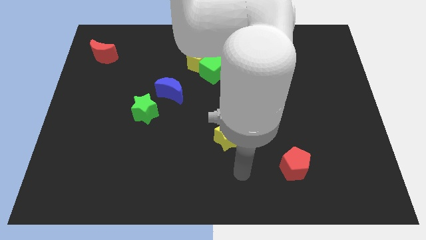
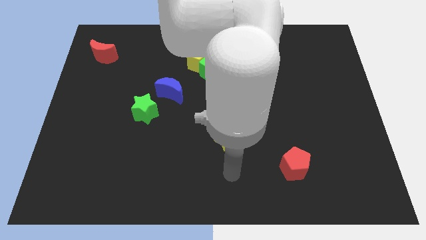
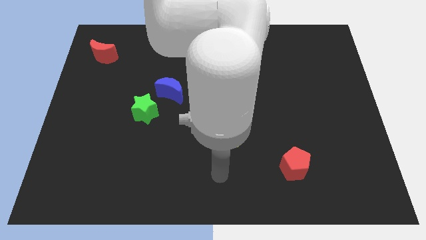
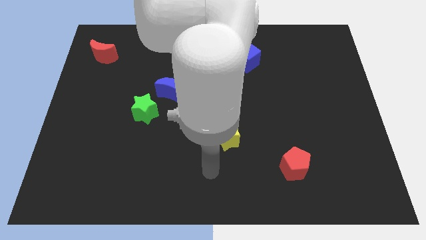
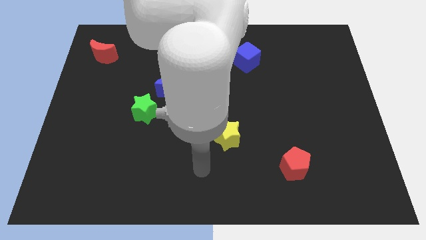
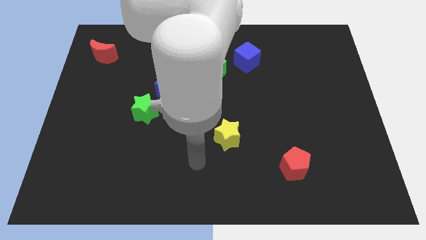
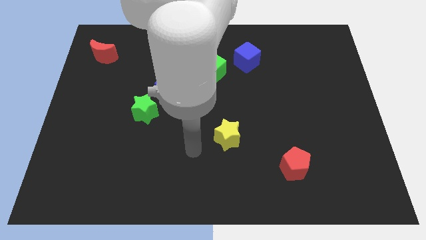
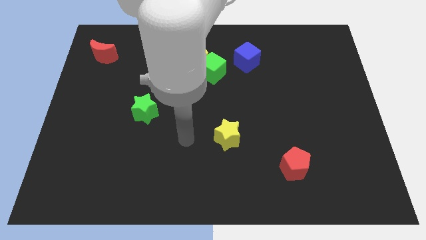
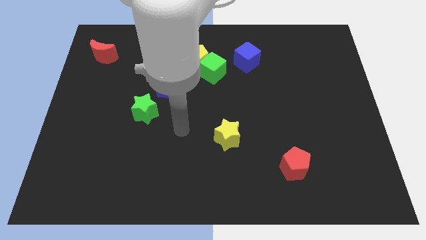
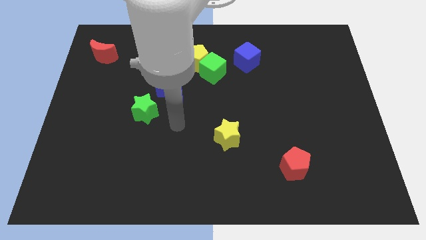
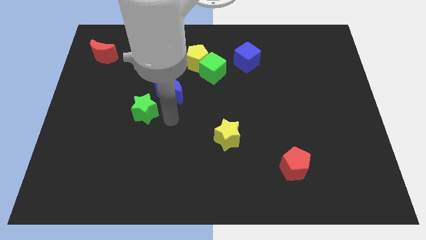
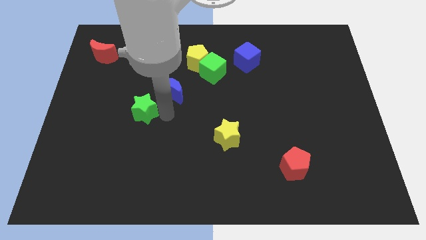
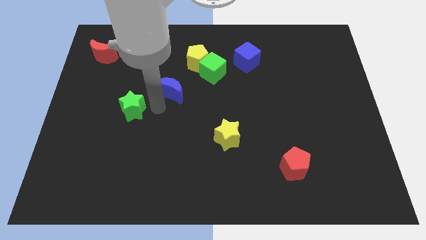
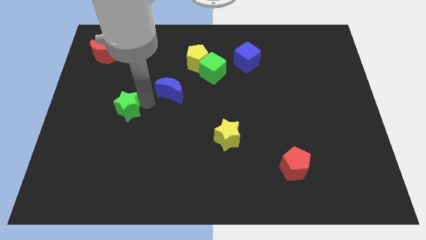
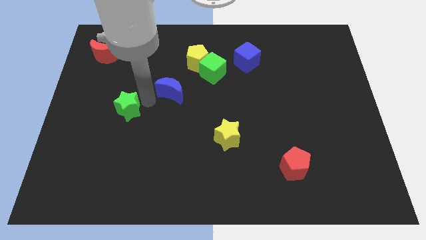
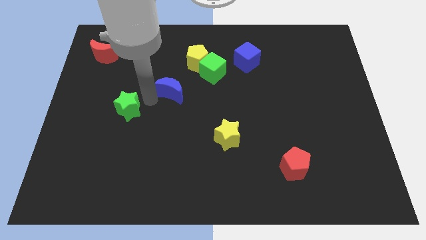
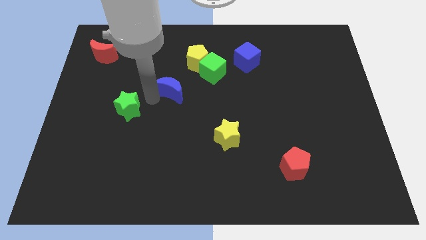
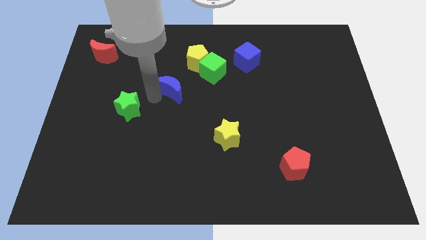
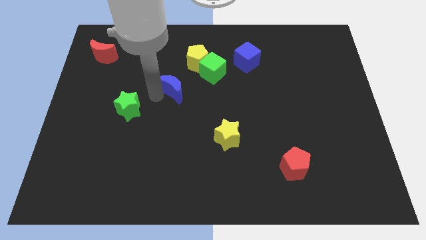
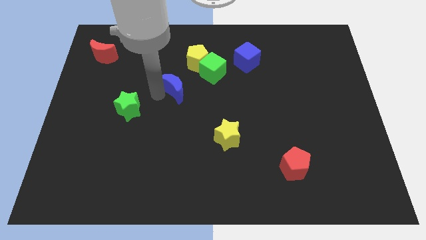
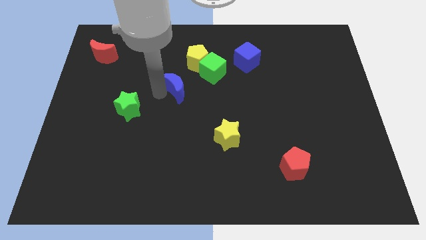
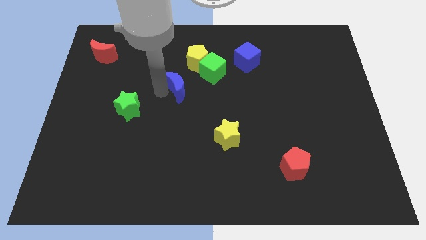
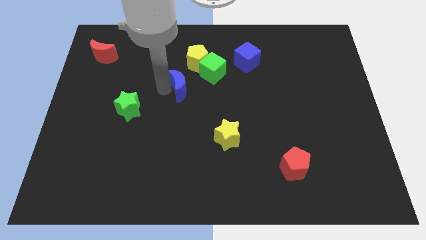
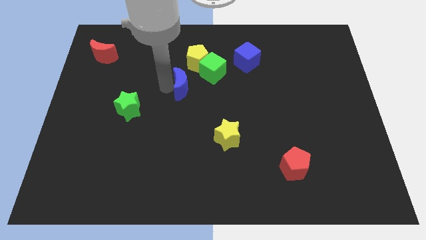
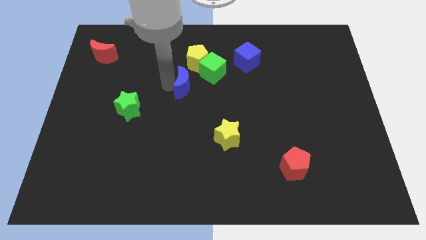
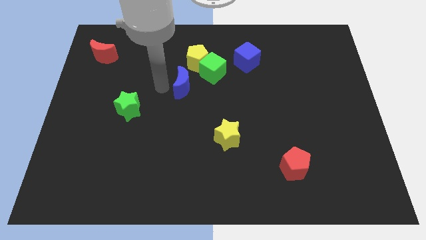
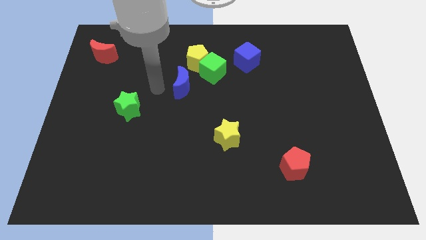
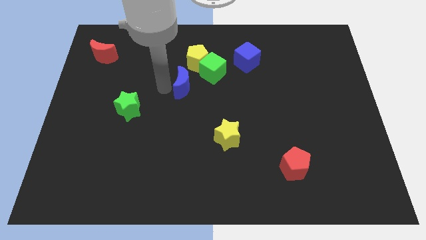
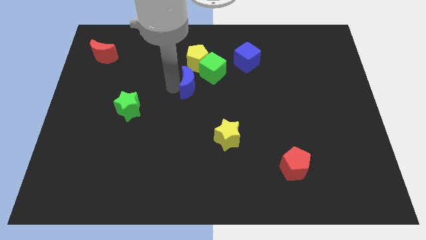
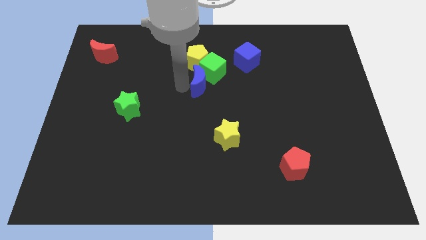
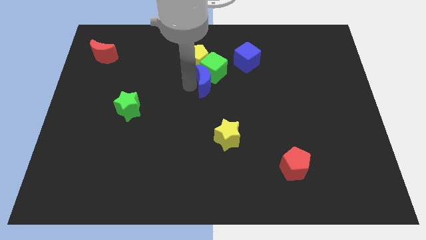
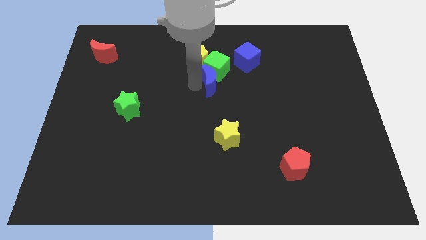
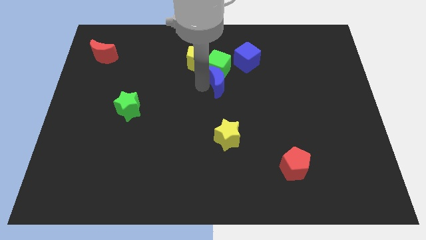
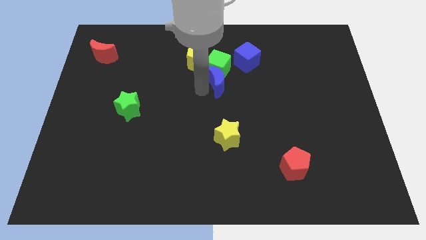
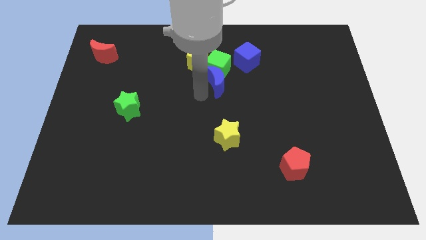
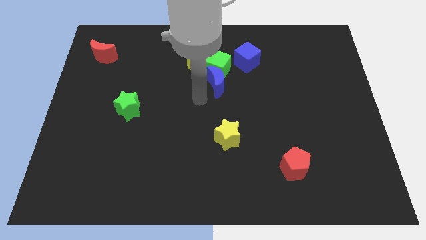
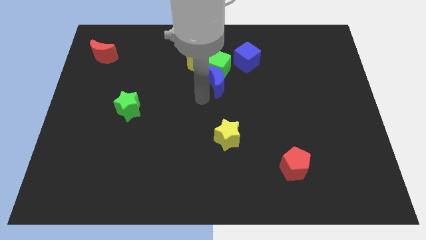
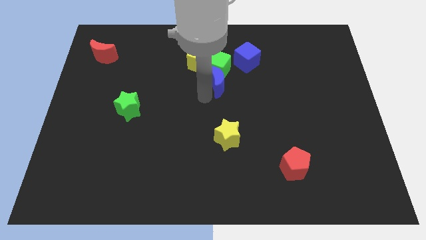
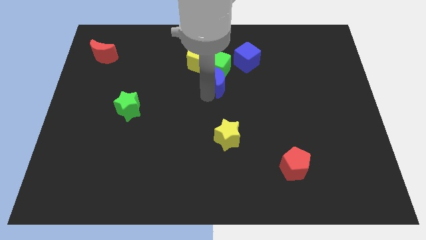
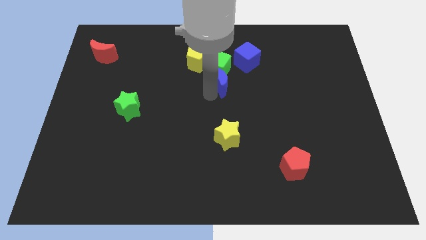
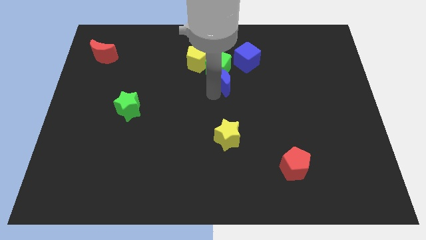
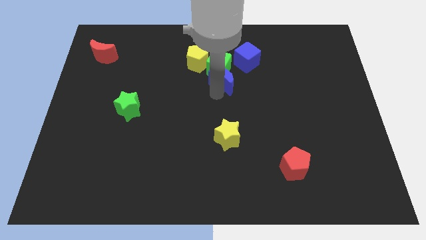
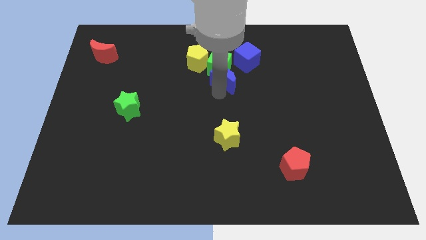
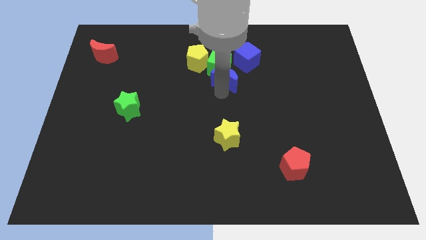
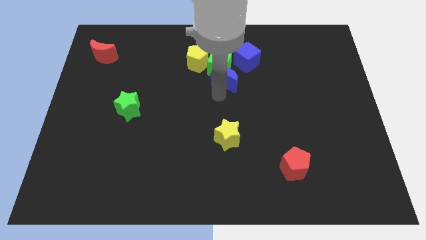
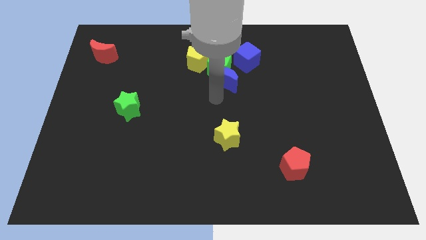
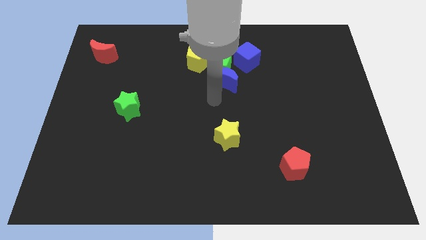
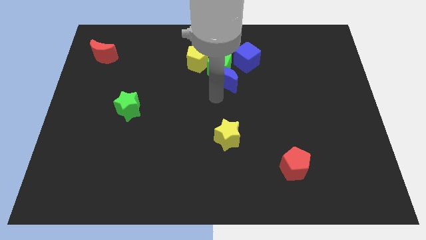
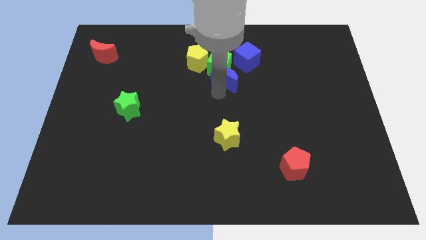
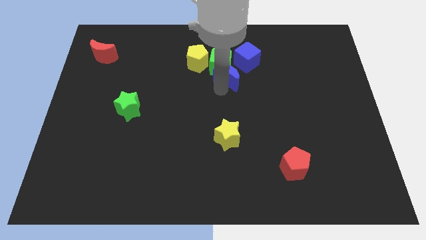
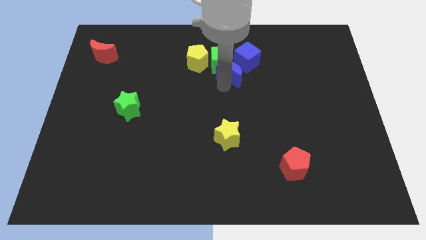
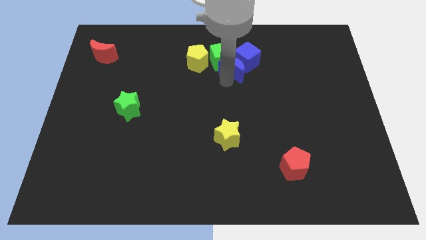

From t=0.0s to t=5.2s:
push the blue moon to the blue cube

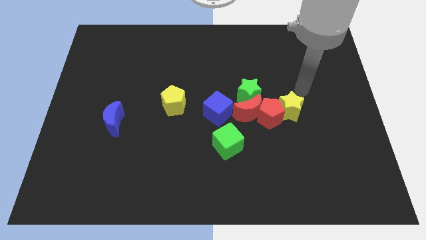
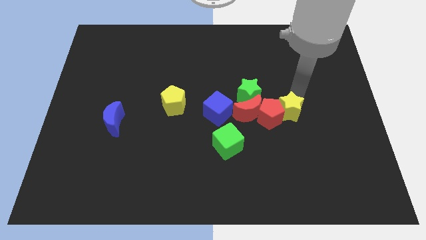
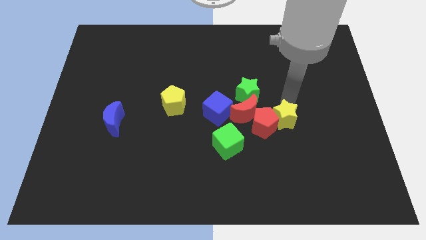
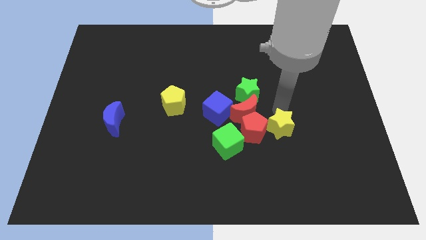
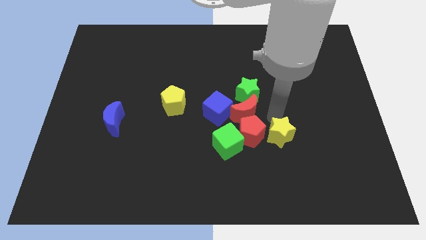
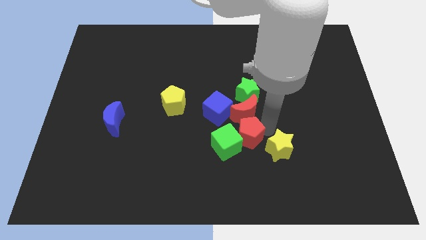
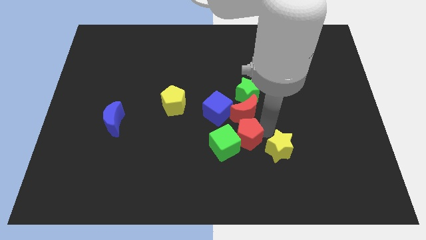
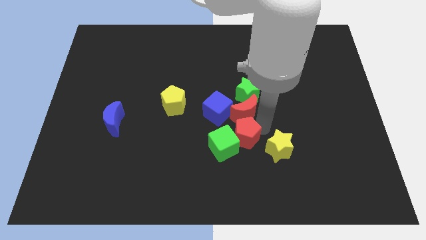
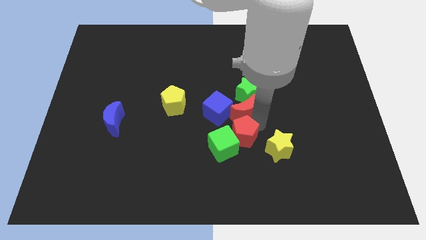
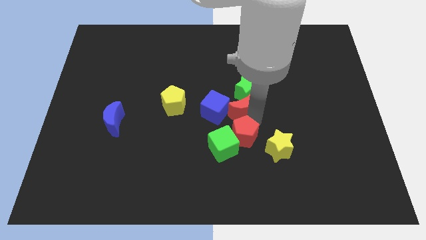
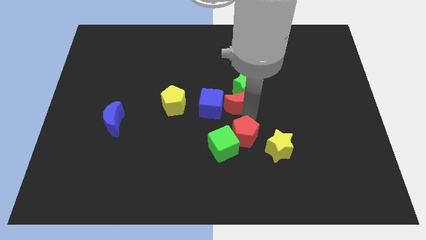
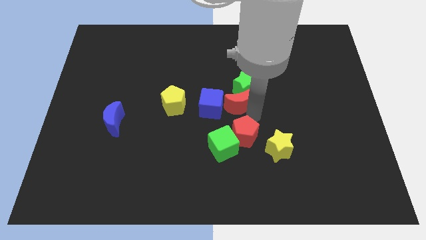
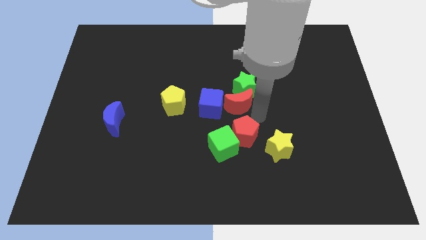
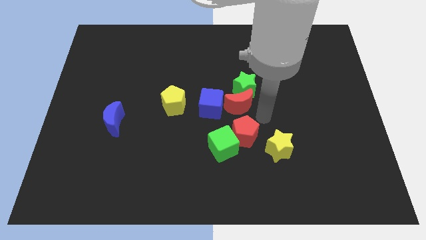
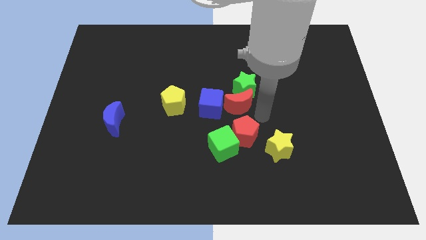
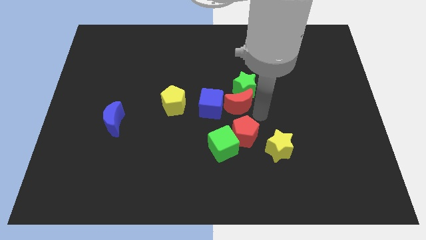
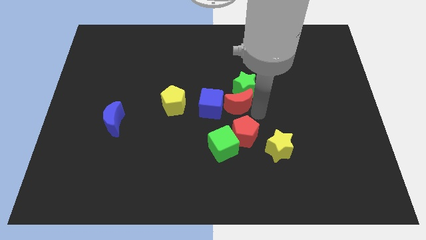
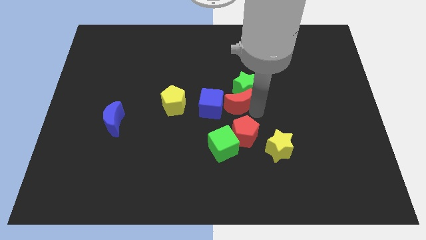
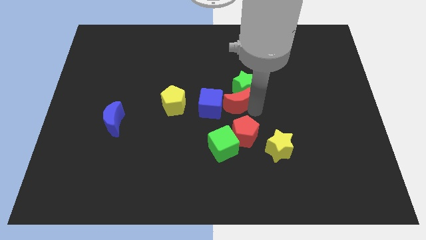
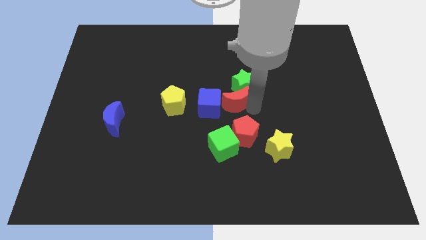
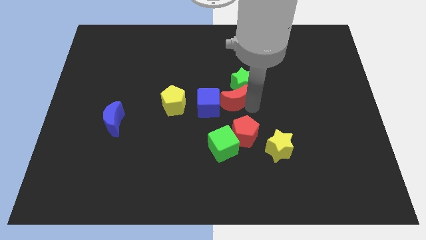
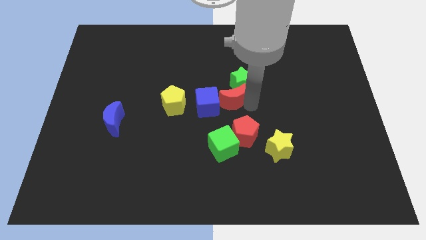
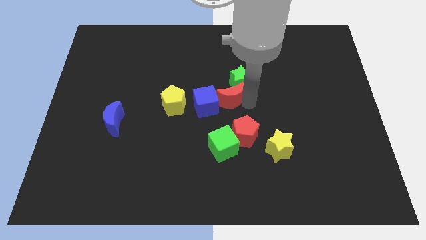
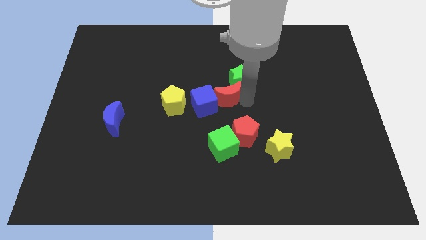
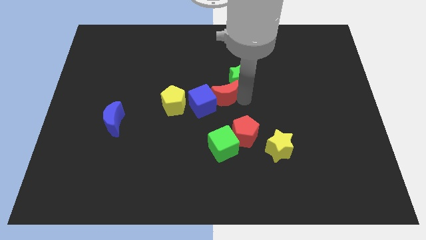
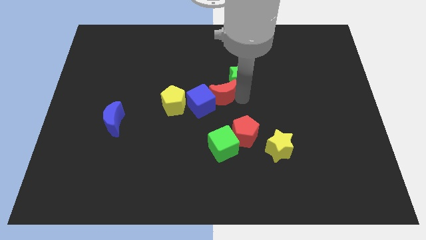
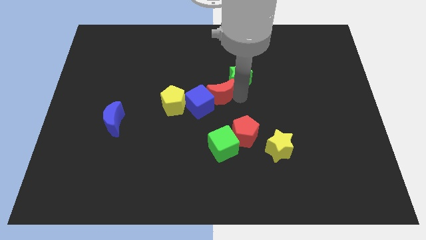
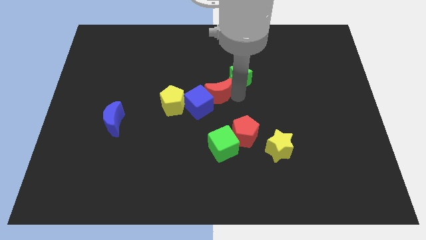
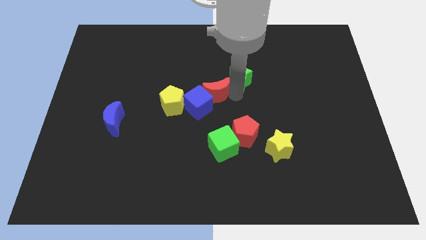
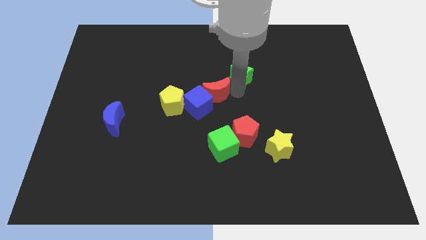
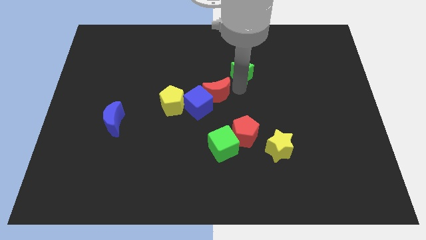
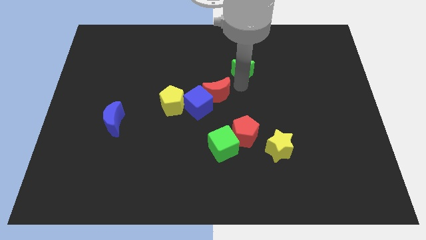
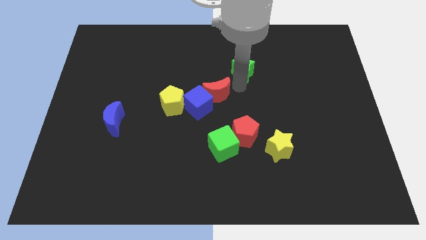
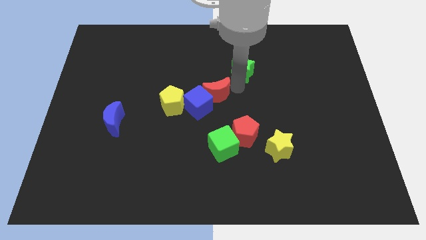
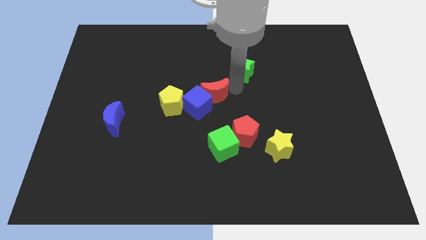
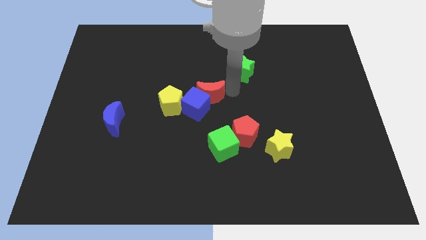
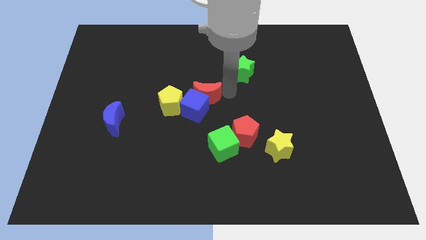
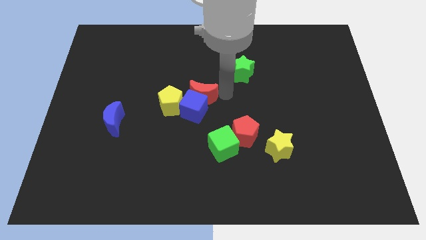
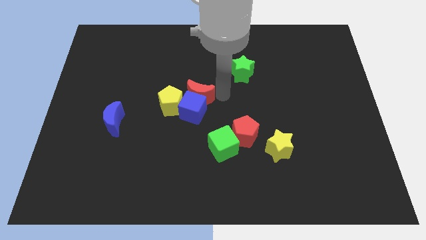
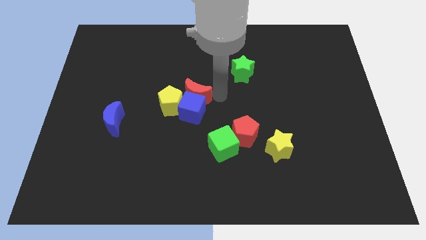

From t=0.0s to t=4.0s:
move the red moon close to the yellow pentagon
